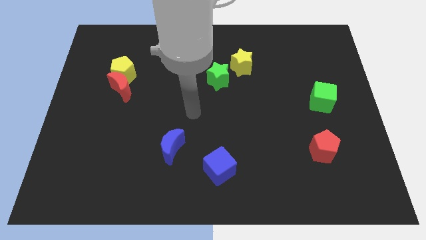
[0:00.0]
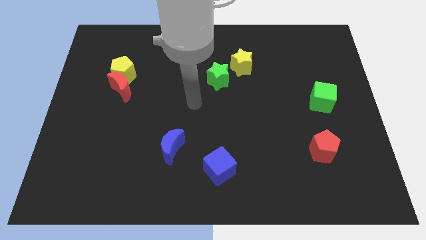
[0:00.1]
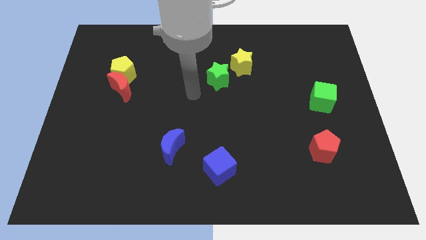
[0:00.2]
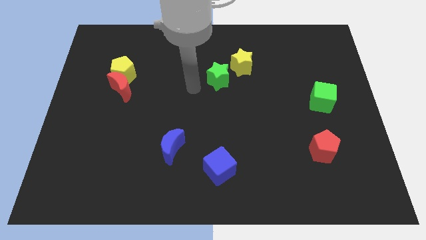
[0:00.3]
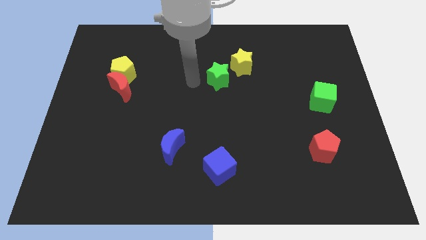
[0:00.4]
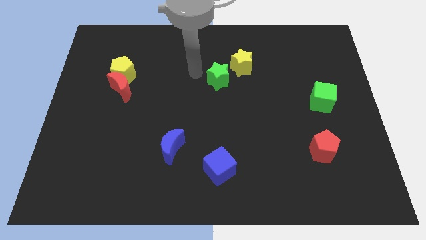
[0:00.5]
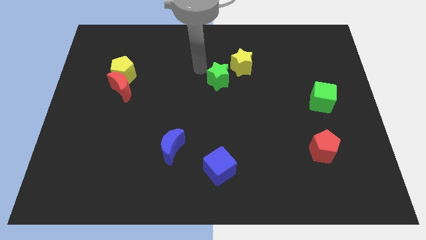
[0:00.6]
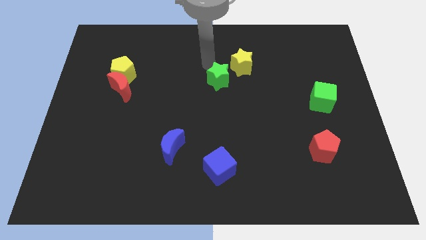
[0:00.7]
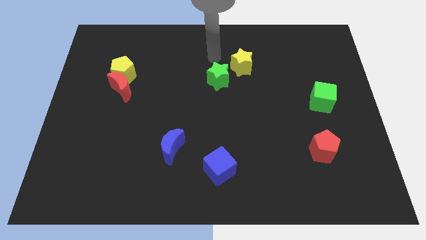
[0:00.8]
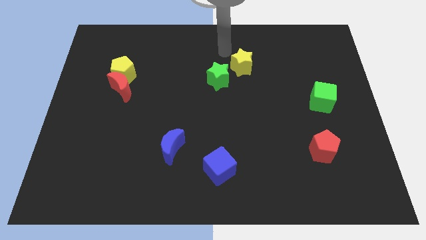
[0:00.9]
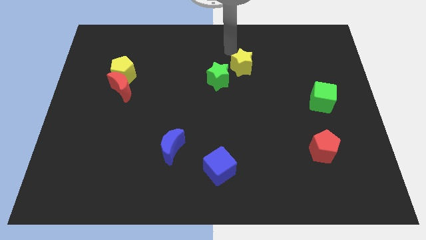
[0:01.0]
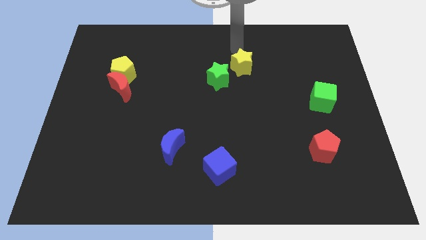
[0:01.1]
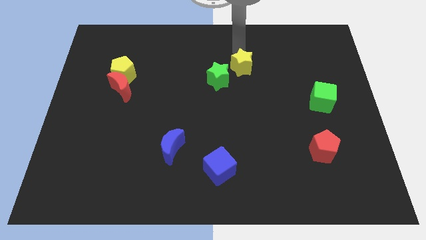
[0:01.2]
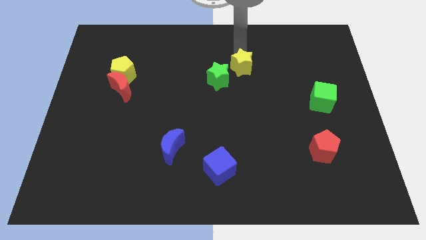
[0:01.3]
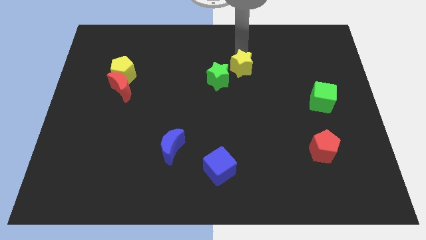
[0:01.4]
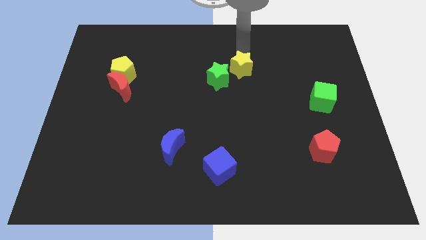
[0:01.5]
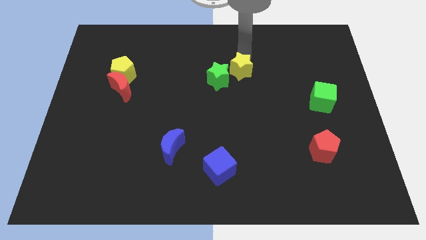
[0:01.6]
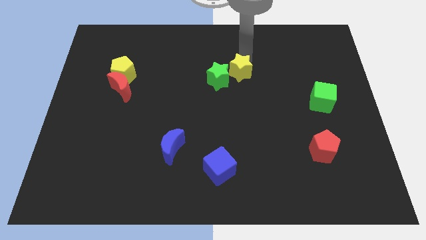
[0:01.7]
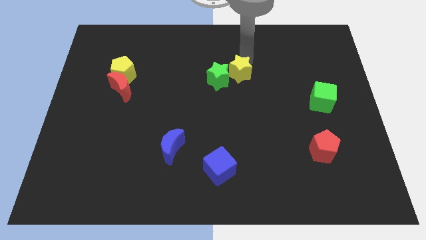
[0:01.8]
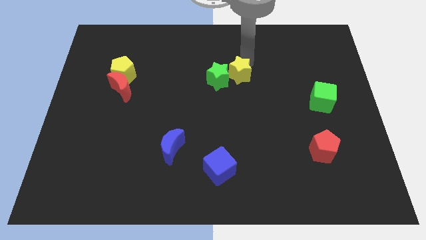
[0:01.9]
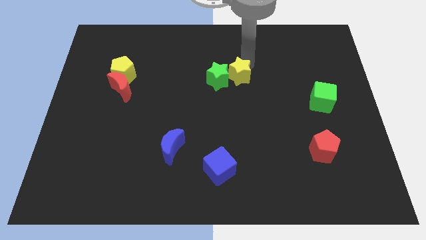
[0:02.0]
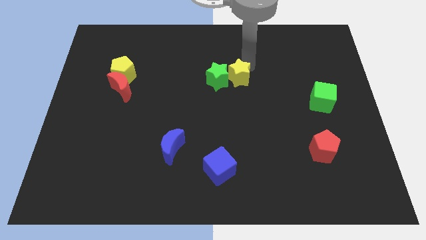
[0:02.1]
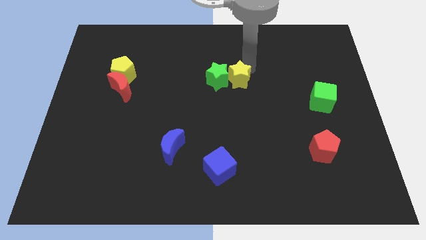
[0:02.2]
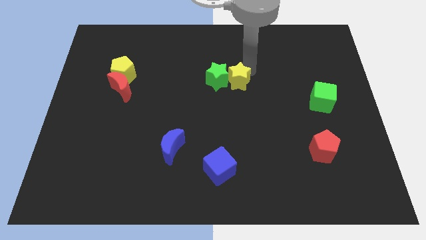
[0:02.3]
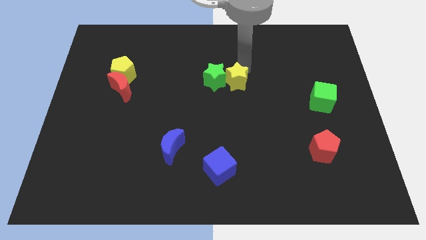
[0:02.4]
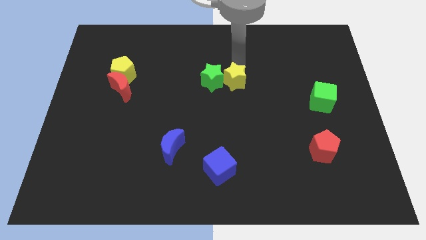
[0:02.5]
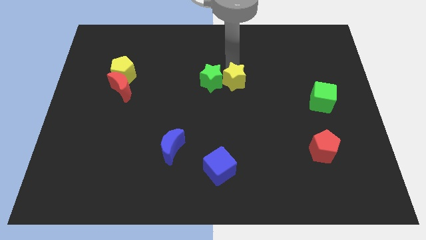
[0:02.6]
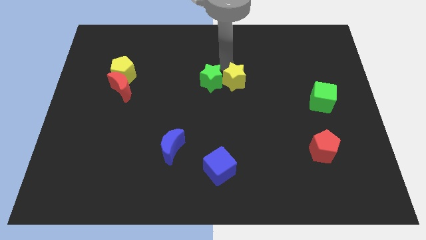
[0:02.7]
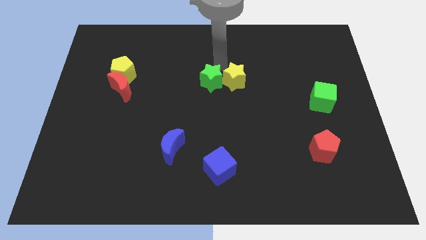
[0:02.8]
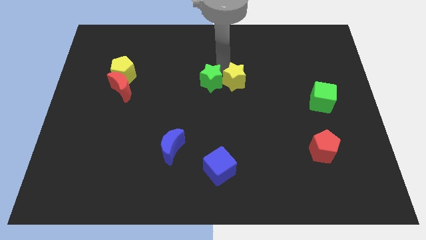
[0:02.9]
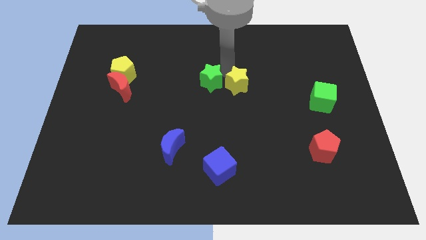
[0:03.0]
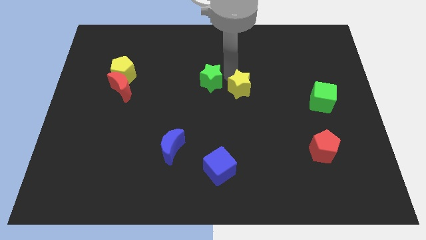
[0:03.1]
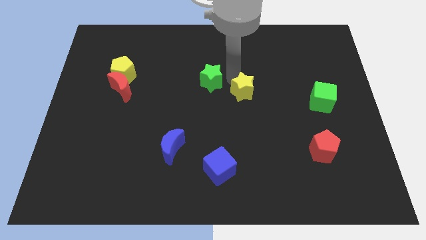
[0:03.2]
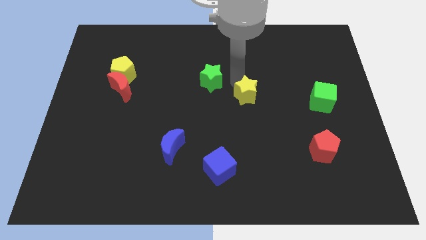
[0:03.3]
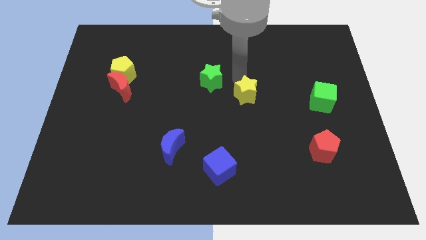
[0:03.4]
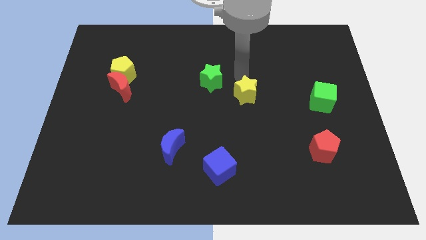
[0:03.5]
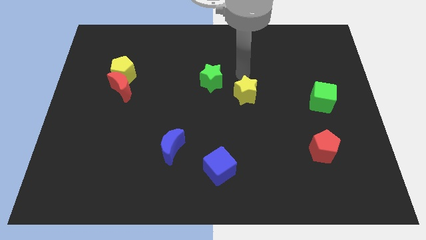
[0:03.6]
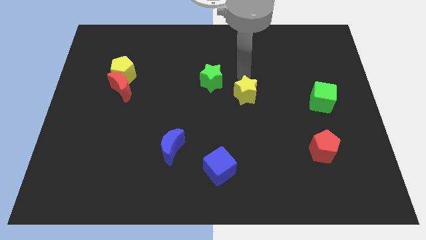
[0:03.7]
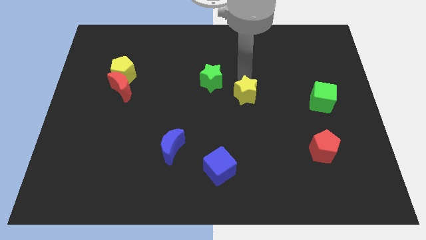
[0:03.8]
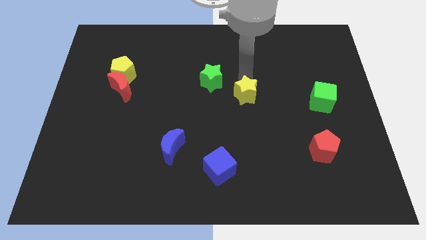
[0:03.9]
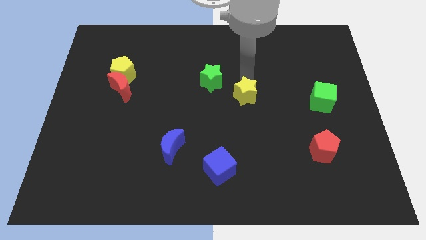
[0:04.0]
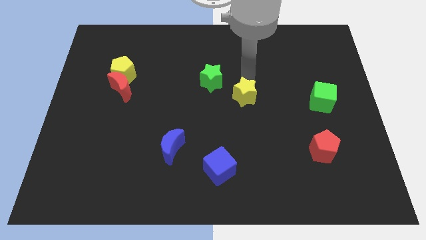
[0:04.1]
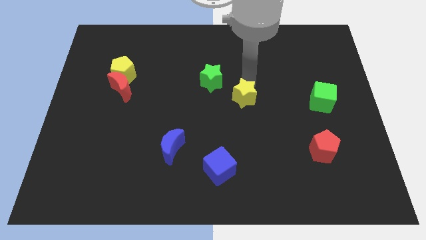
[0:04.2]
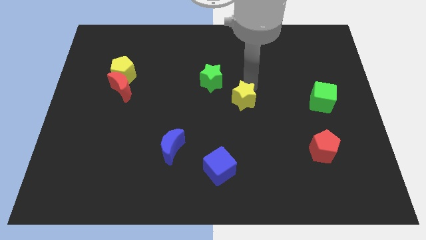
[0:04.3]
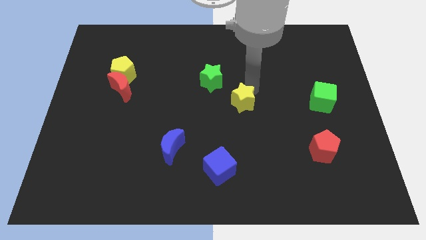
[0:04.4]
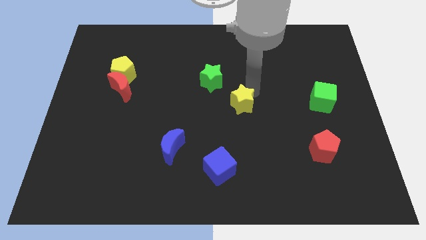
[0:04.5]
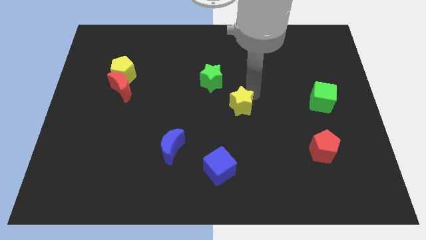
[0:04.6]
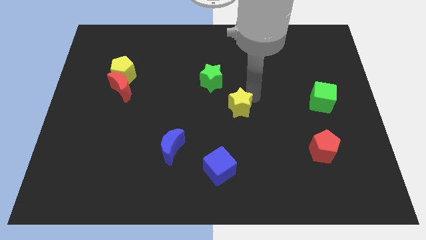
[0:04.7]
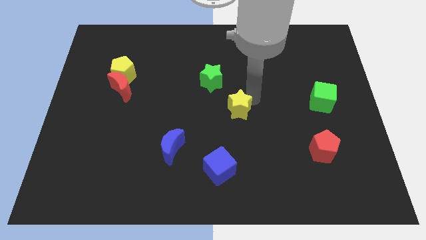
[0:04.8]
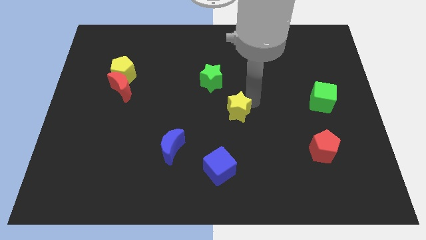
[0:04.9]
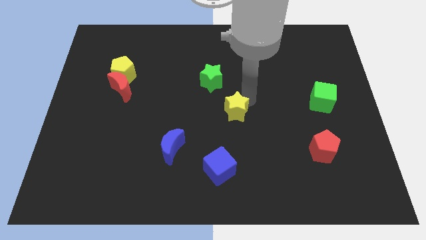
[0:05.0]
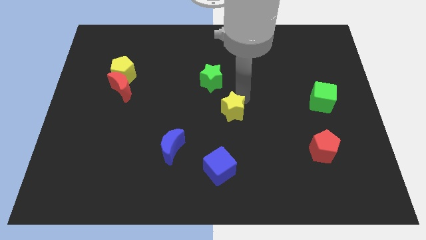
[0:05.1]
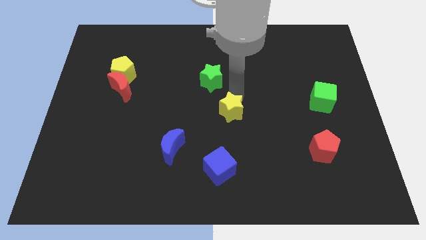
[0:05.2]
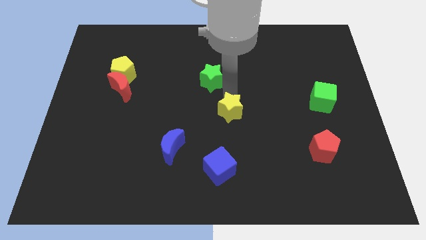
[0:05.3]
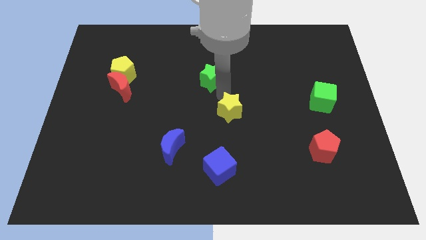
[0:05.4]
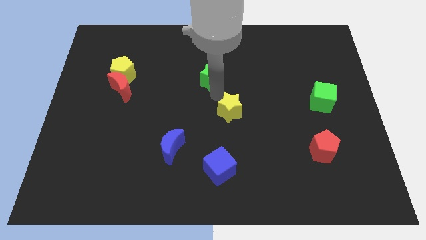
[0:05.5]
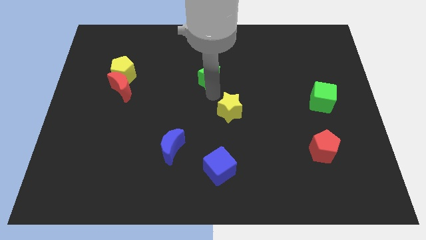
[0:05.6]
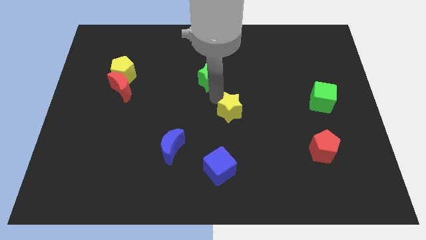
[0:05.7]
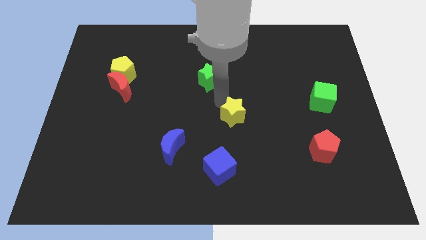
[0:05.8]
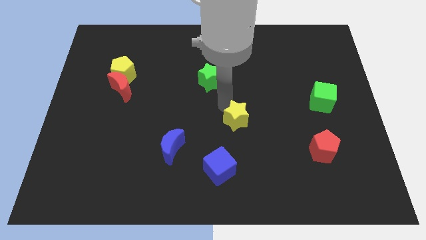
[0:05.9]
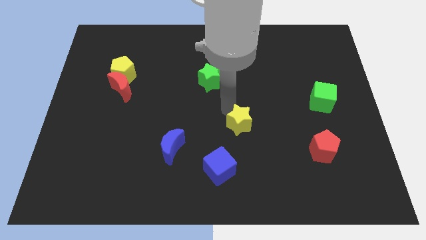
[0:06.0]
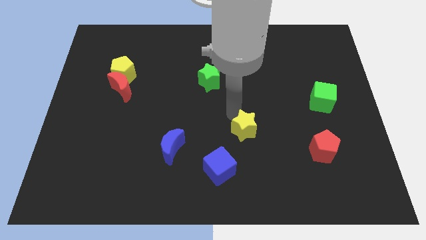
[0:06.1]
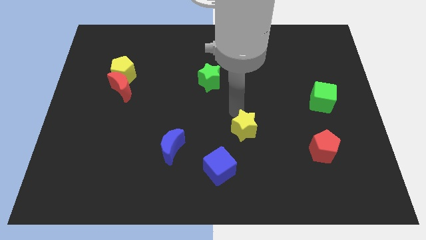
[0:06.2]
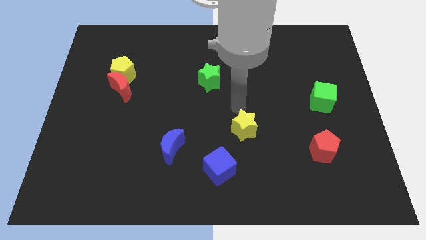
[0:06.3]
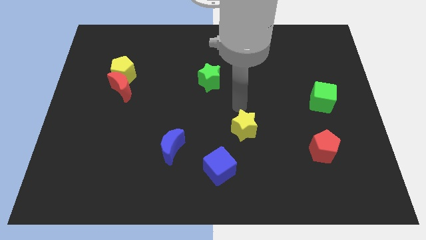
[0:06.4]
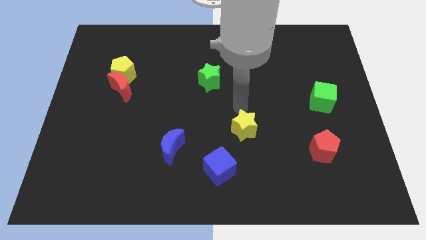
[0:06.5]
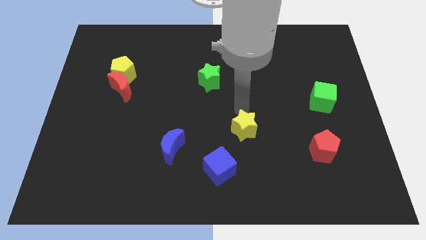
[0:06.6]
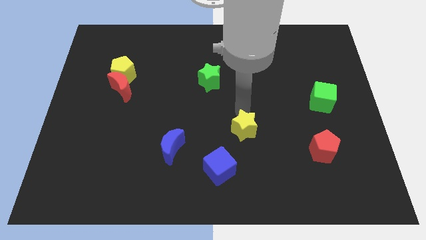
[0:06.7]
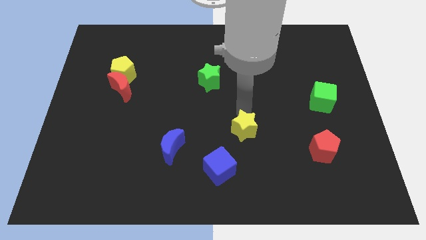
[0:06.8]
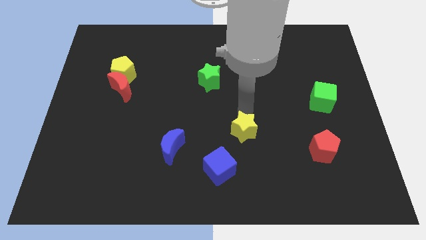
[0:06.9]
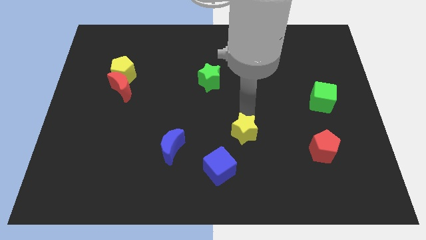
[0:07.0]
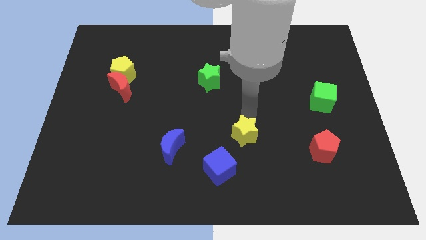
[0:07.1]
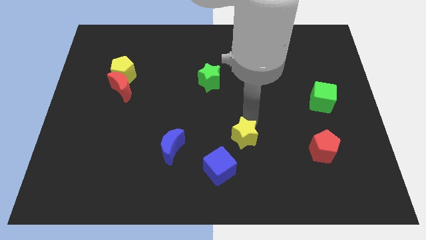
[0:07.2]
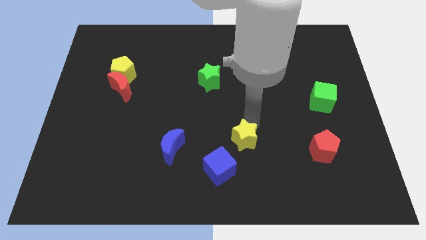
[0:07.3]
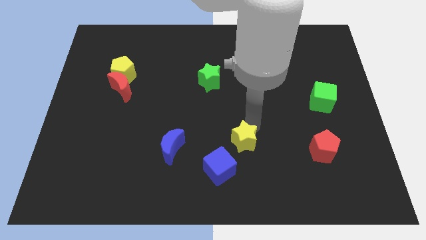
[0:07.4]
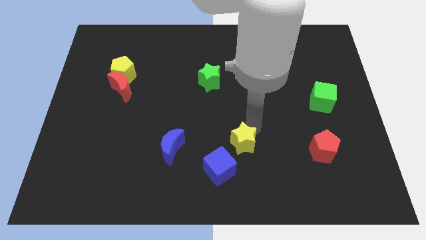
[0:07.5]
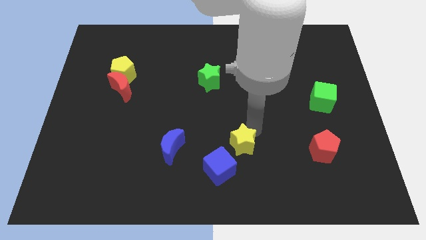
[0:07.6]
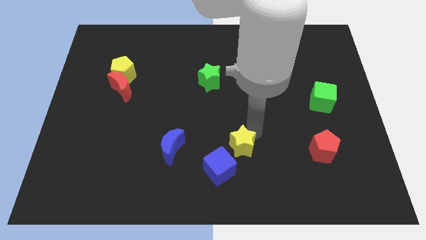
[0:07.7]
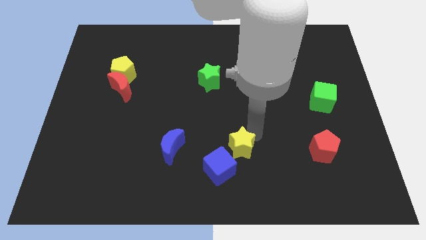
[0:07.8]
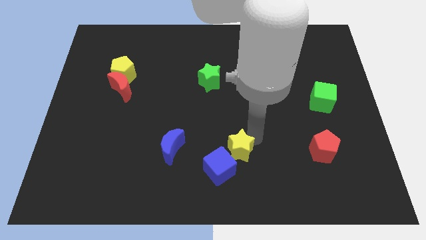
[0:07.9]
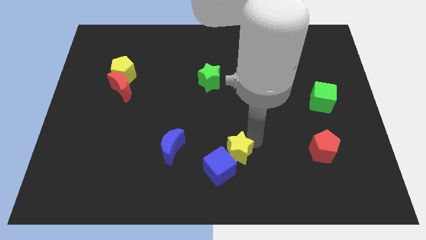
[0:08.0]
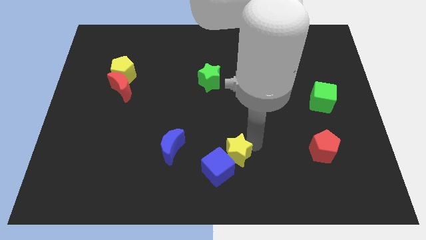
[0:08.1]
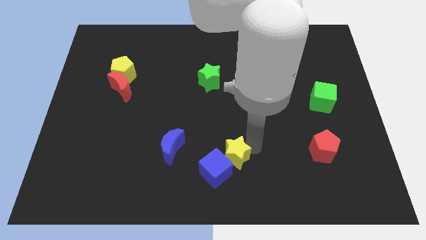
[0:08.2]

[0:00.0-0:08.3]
slide the yellow star to the bottom side
